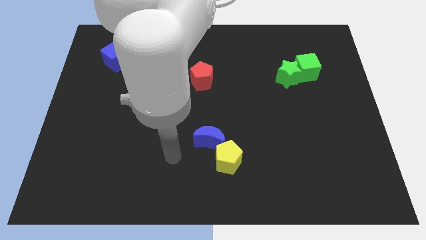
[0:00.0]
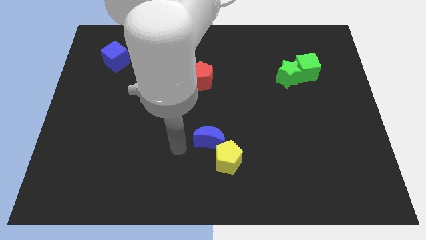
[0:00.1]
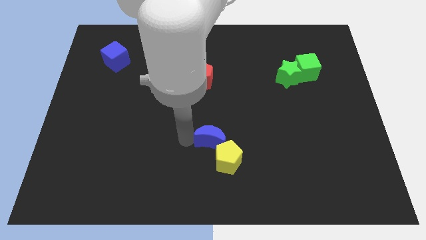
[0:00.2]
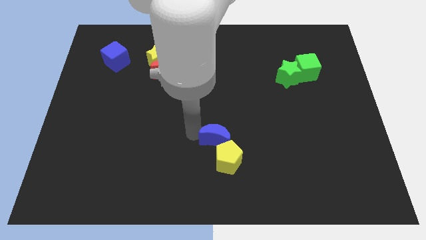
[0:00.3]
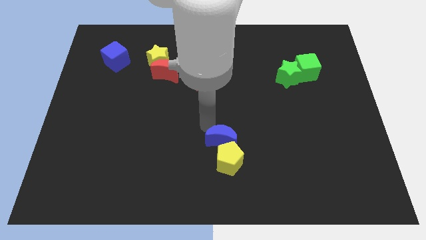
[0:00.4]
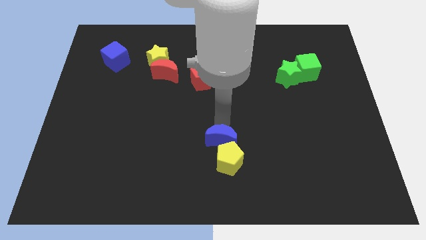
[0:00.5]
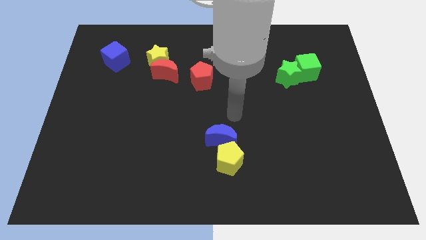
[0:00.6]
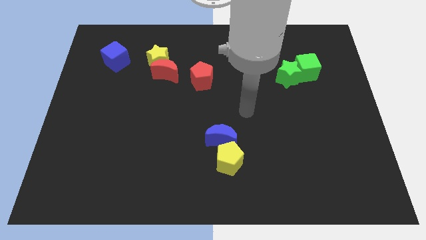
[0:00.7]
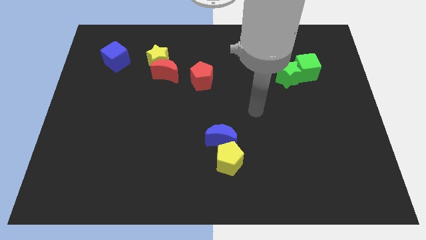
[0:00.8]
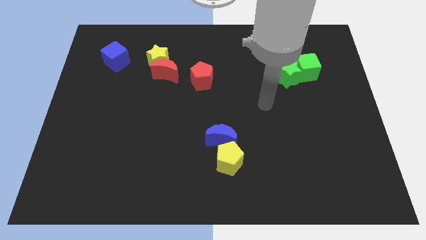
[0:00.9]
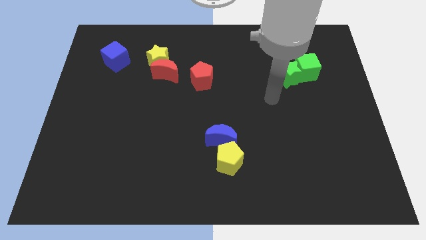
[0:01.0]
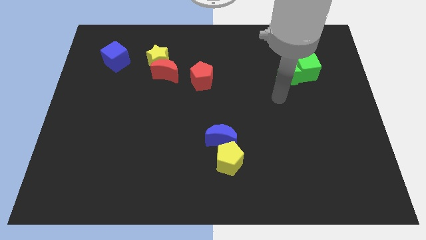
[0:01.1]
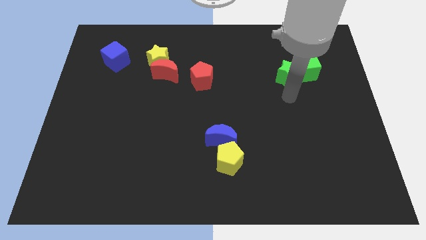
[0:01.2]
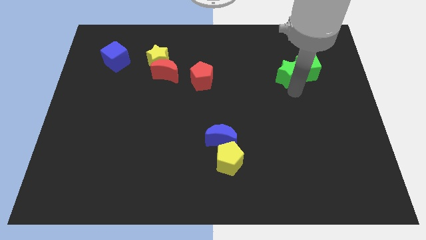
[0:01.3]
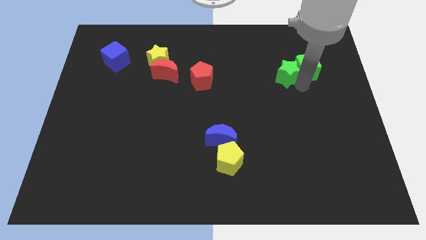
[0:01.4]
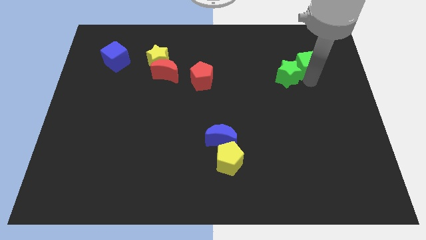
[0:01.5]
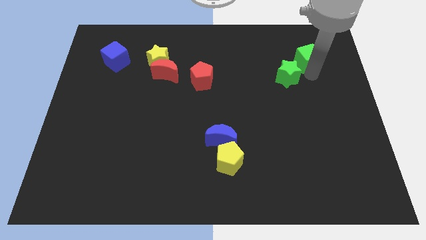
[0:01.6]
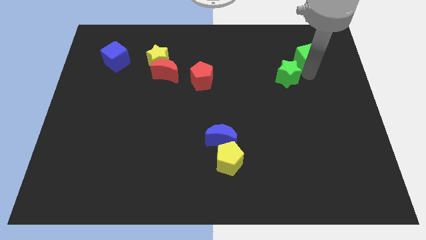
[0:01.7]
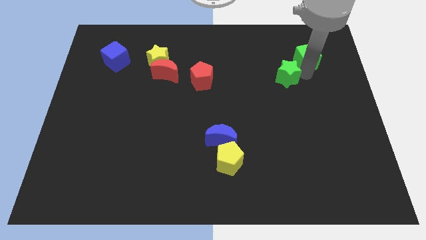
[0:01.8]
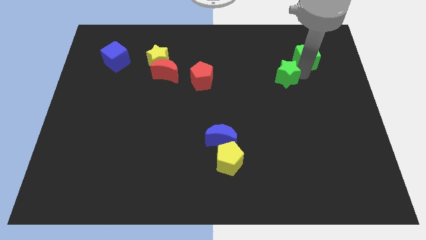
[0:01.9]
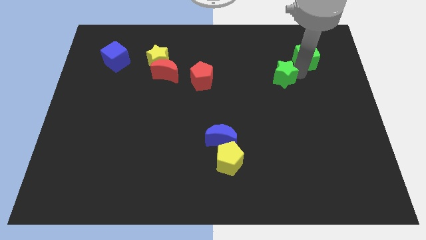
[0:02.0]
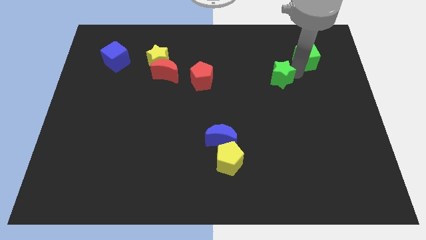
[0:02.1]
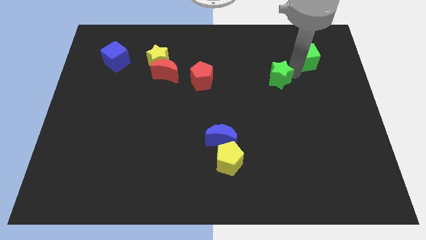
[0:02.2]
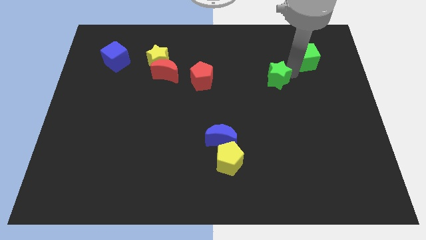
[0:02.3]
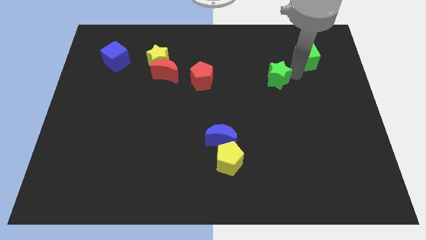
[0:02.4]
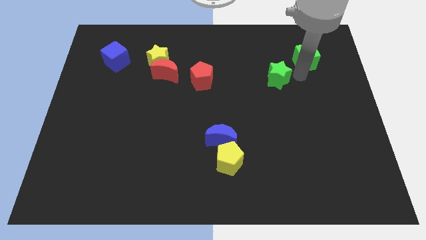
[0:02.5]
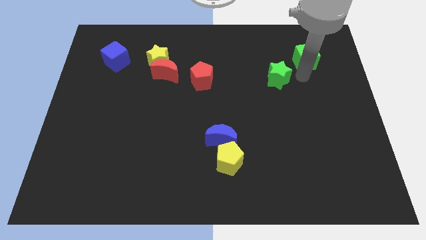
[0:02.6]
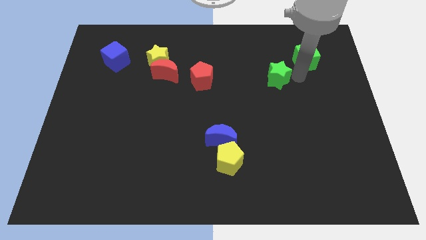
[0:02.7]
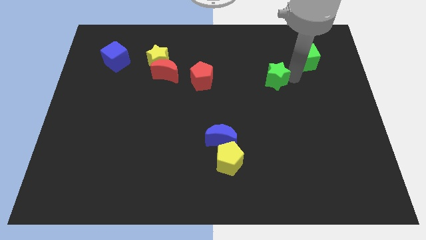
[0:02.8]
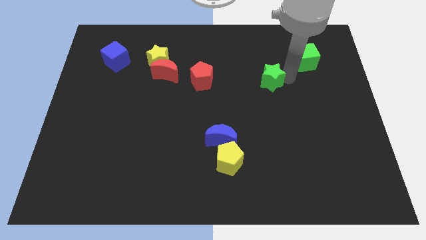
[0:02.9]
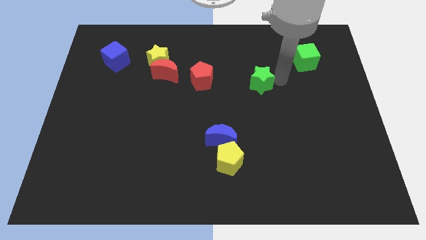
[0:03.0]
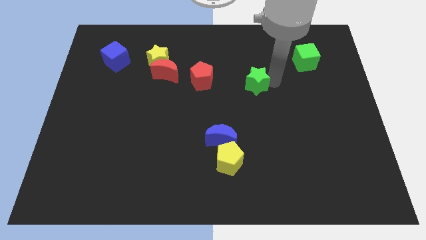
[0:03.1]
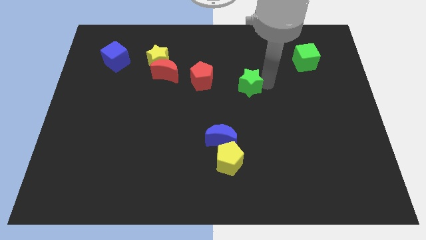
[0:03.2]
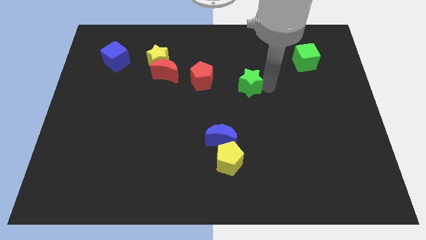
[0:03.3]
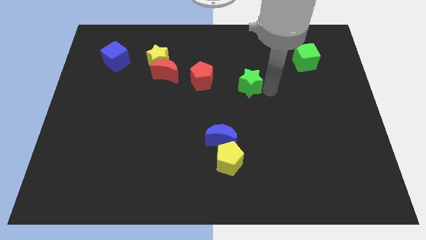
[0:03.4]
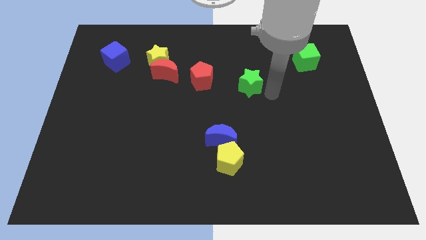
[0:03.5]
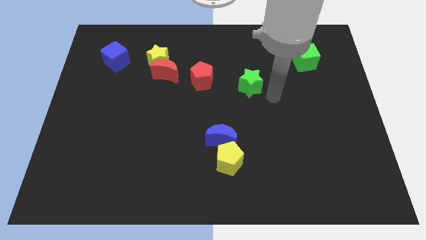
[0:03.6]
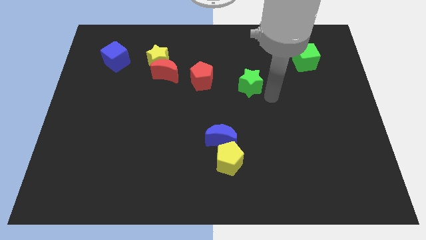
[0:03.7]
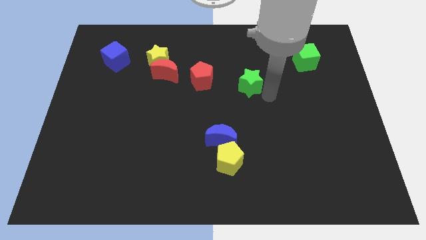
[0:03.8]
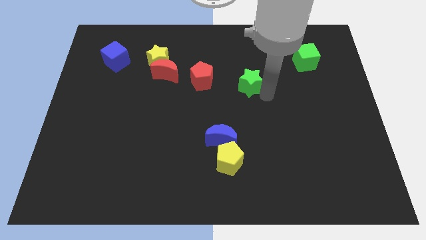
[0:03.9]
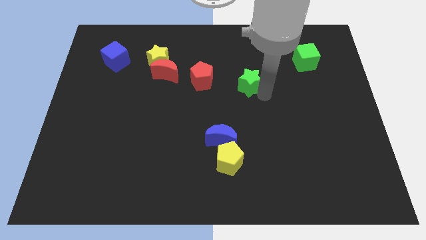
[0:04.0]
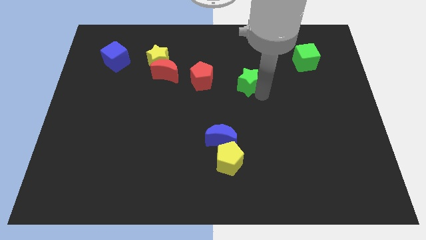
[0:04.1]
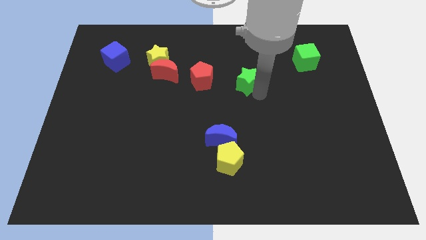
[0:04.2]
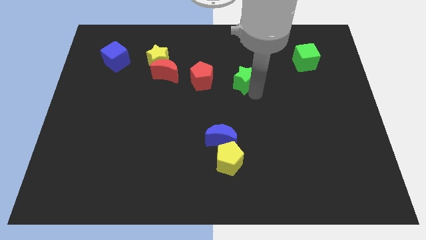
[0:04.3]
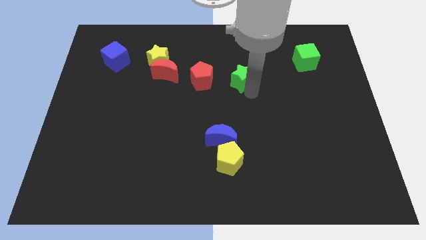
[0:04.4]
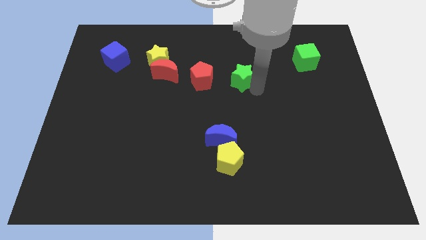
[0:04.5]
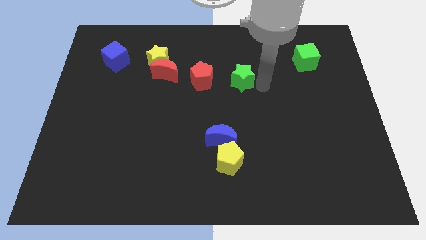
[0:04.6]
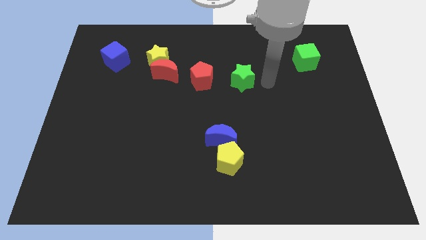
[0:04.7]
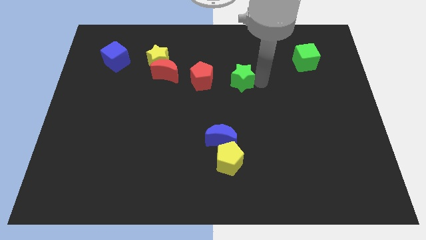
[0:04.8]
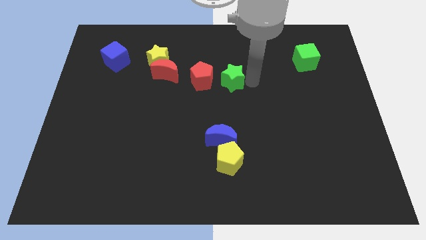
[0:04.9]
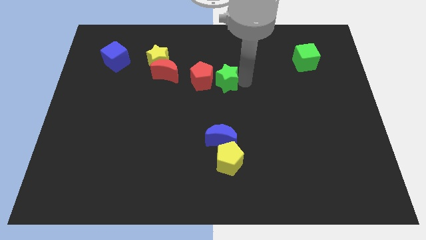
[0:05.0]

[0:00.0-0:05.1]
put the green star close to the red pentagon

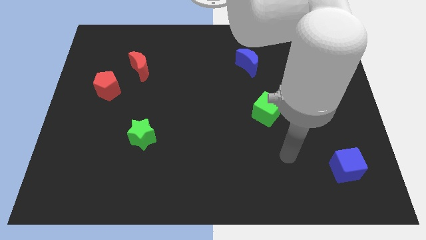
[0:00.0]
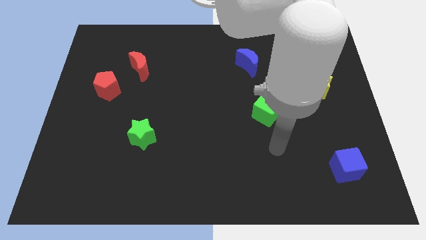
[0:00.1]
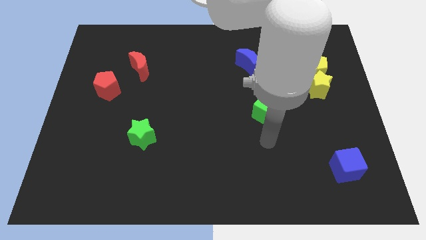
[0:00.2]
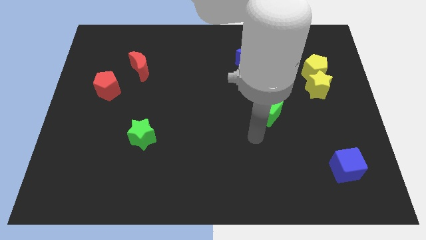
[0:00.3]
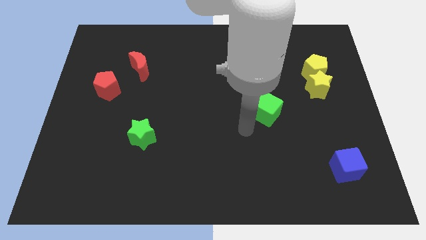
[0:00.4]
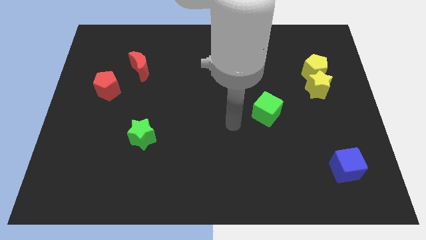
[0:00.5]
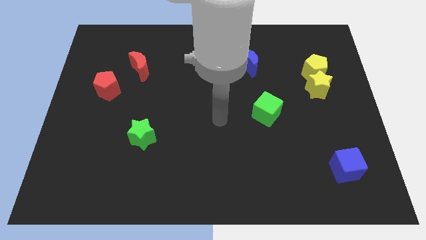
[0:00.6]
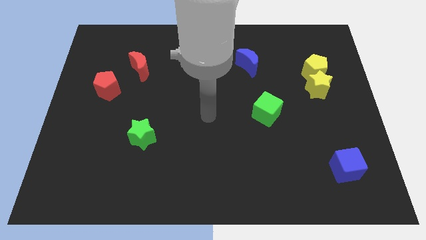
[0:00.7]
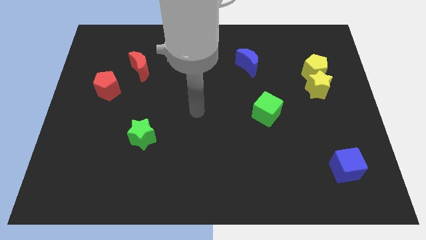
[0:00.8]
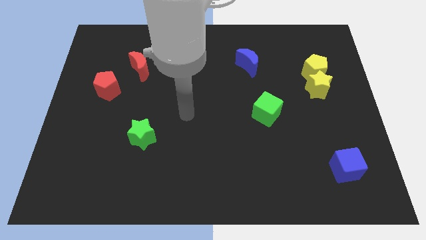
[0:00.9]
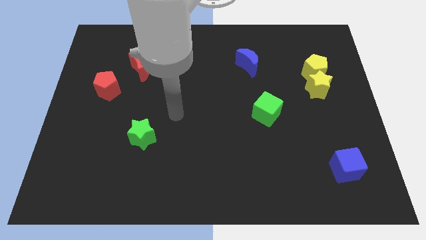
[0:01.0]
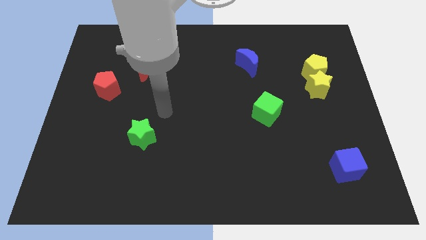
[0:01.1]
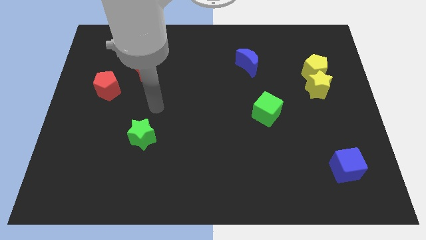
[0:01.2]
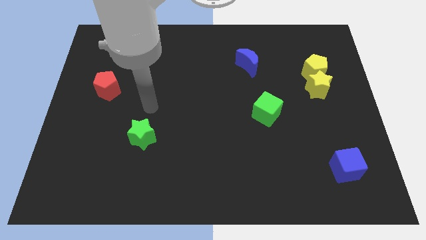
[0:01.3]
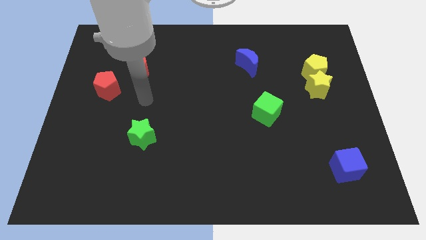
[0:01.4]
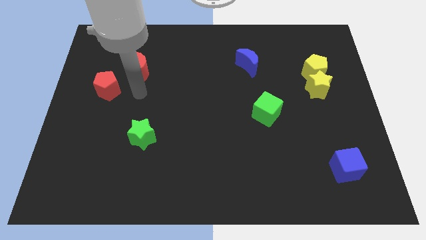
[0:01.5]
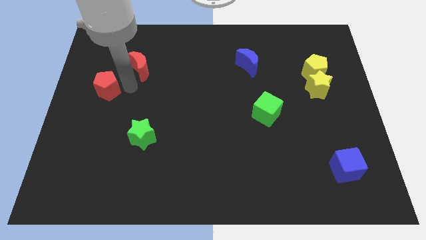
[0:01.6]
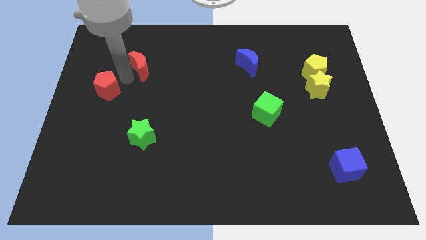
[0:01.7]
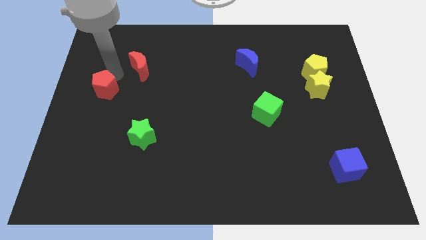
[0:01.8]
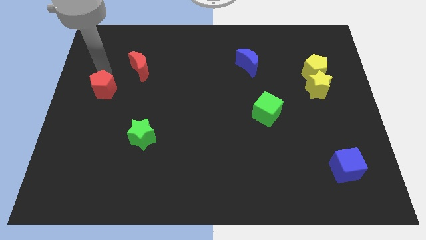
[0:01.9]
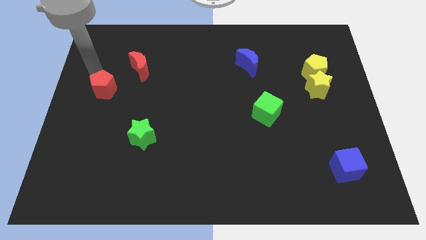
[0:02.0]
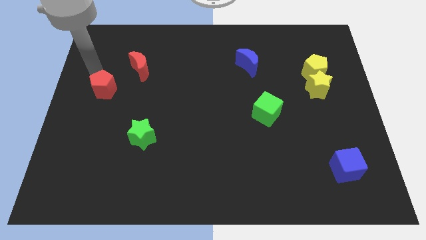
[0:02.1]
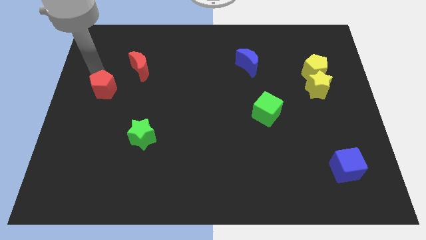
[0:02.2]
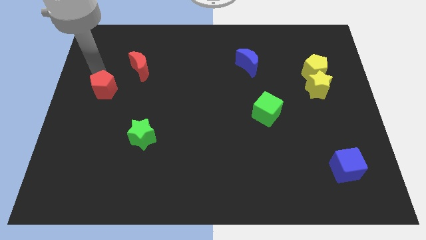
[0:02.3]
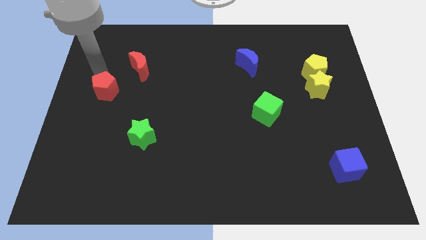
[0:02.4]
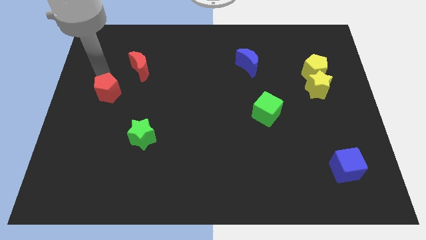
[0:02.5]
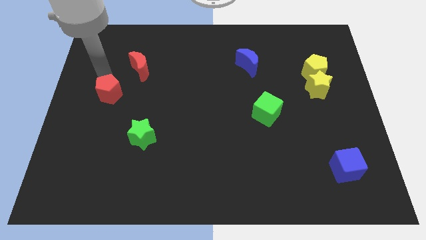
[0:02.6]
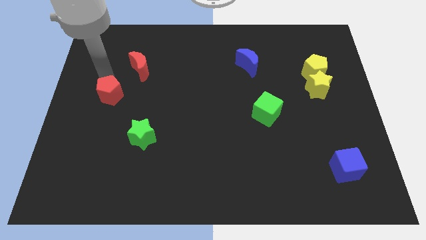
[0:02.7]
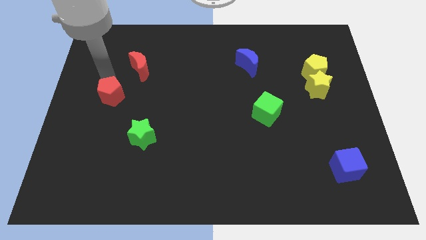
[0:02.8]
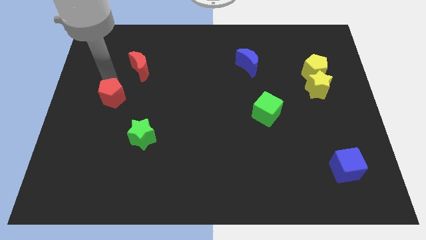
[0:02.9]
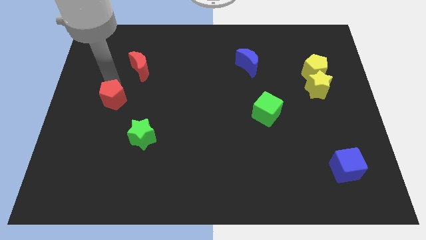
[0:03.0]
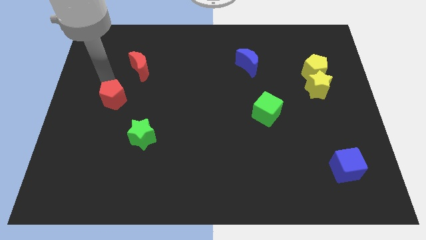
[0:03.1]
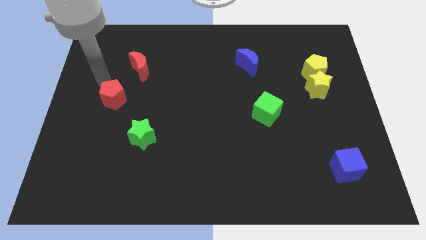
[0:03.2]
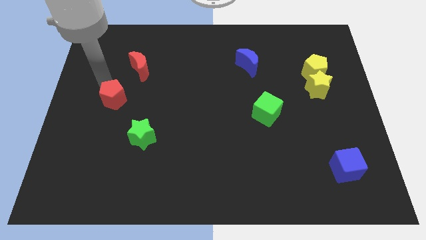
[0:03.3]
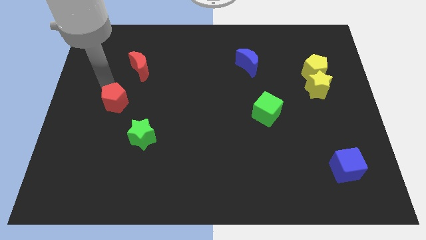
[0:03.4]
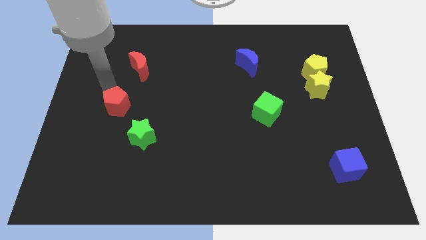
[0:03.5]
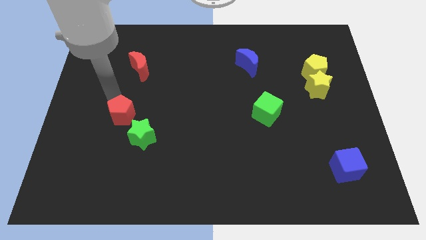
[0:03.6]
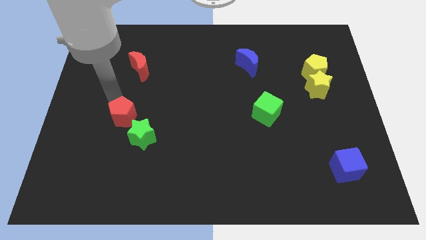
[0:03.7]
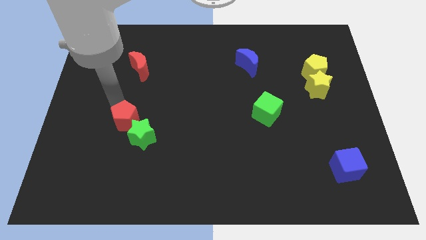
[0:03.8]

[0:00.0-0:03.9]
put the red pentagon next to the green star
